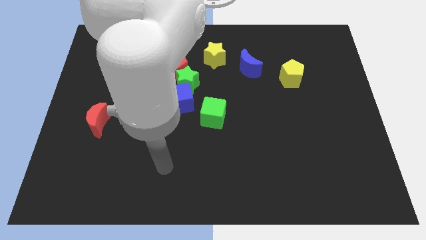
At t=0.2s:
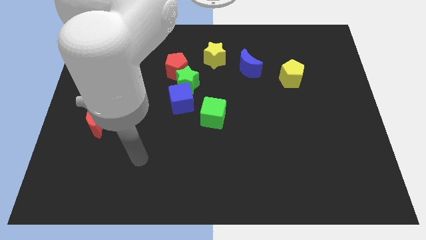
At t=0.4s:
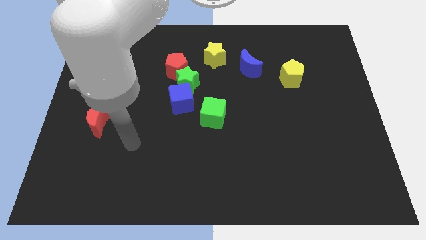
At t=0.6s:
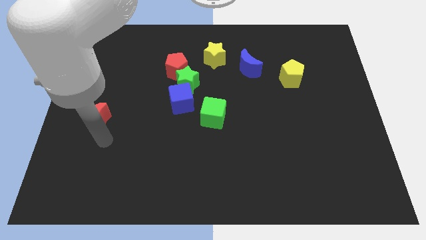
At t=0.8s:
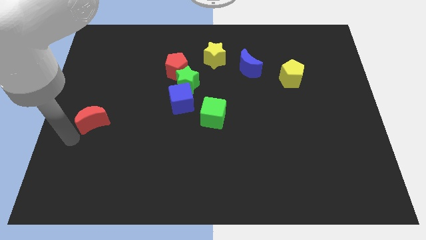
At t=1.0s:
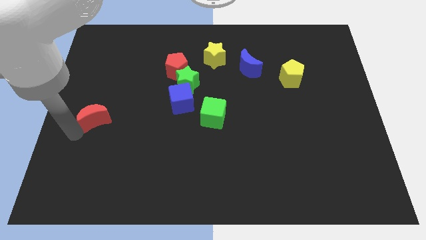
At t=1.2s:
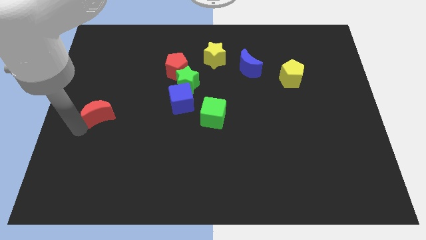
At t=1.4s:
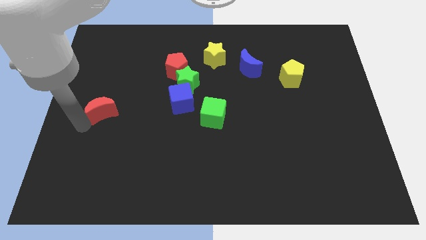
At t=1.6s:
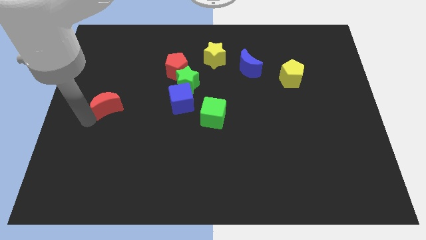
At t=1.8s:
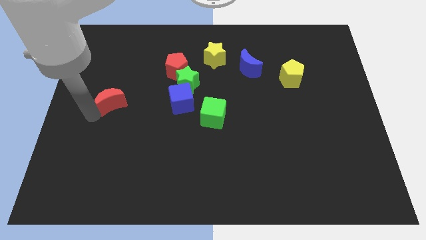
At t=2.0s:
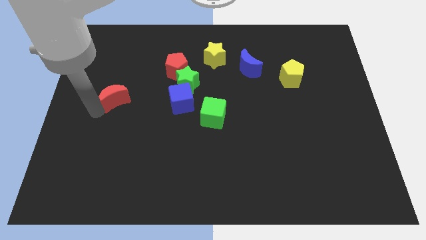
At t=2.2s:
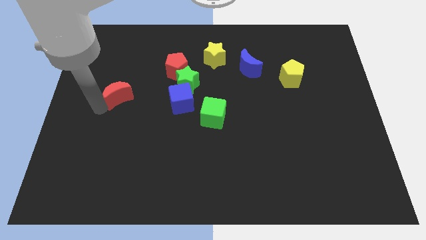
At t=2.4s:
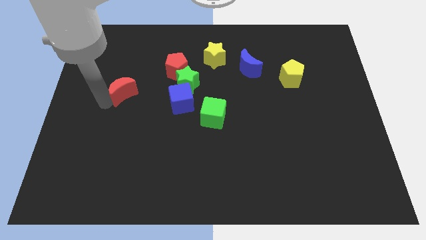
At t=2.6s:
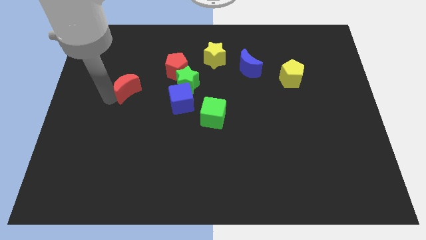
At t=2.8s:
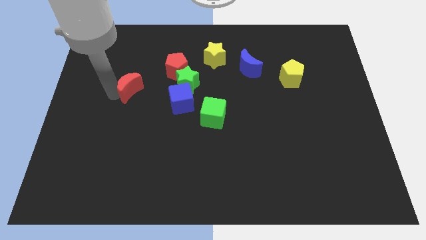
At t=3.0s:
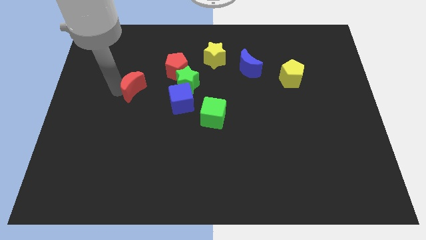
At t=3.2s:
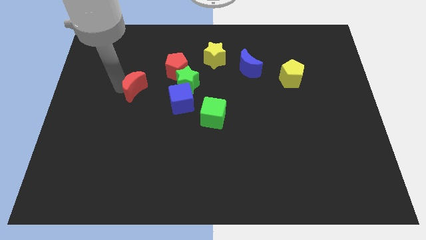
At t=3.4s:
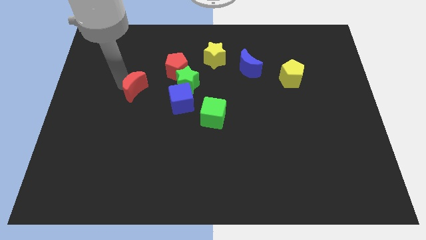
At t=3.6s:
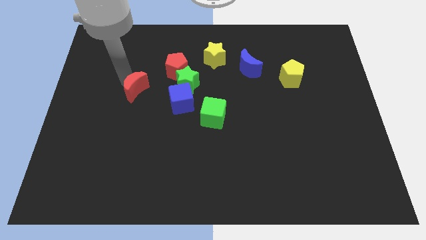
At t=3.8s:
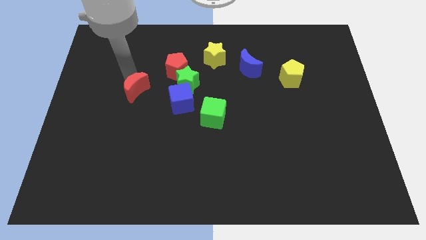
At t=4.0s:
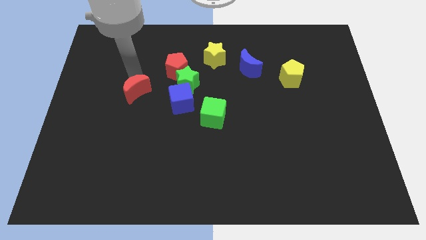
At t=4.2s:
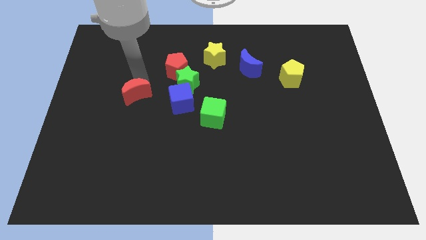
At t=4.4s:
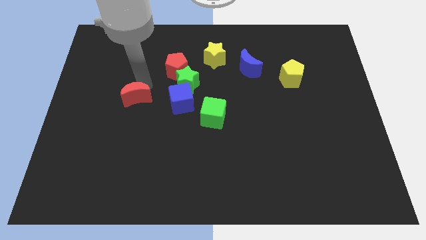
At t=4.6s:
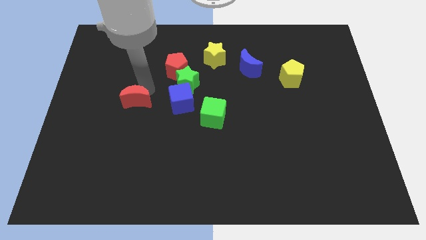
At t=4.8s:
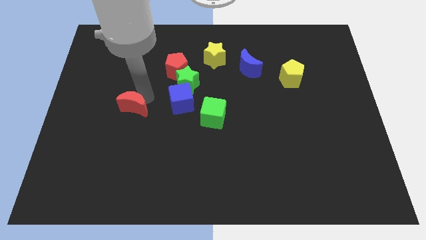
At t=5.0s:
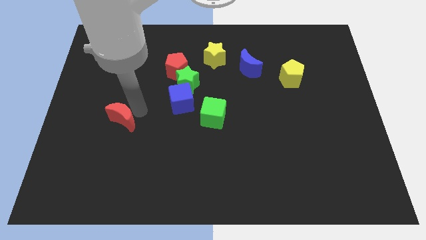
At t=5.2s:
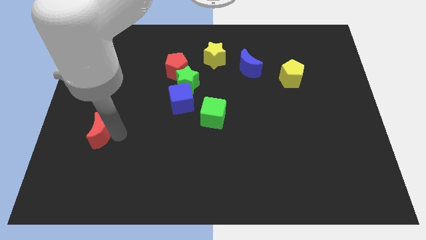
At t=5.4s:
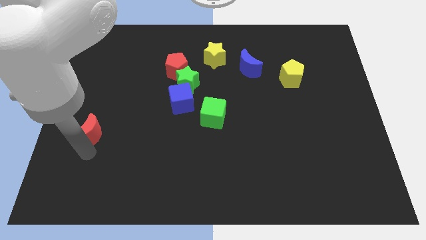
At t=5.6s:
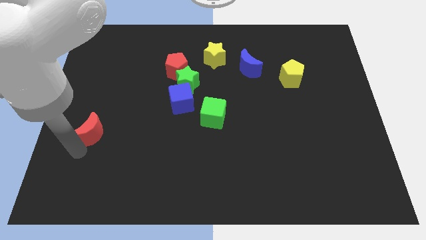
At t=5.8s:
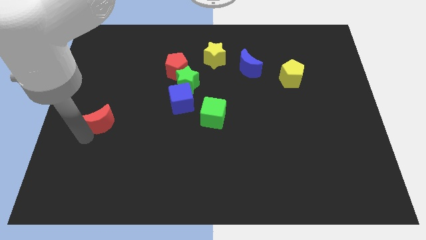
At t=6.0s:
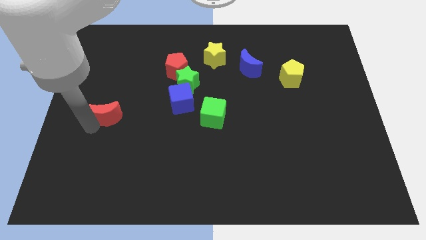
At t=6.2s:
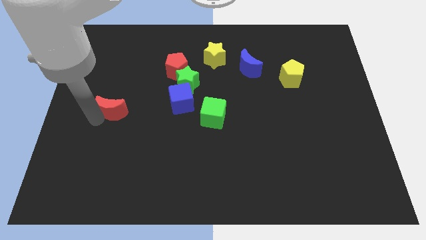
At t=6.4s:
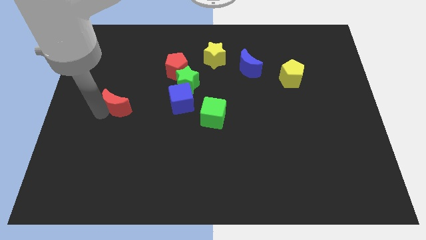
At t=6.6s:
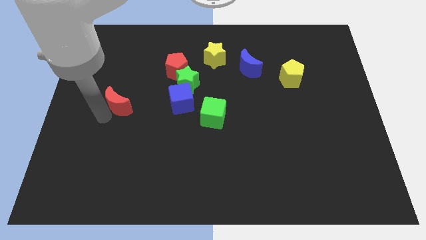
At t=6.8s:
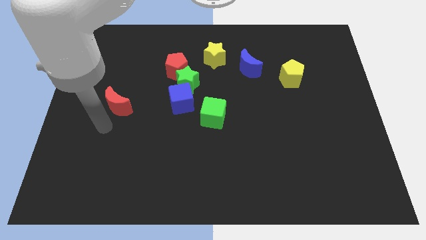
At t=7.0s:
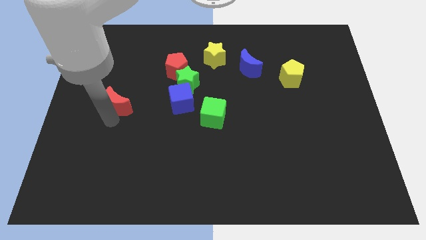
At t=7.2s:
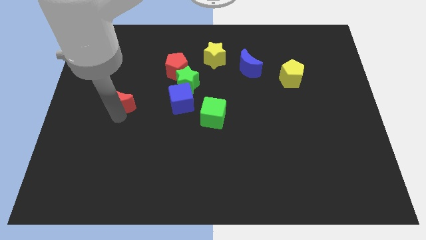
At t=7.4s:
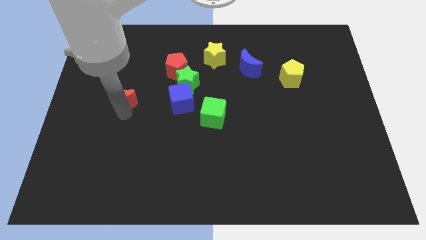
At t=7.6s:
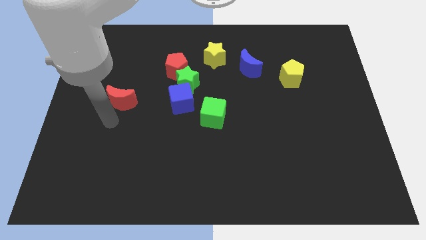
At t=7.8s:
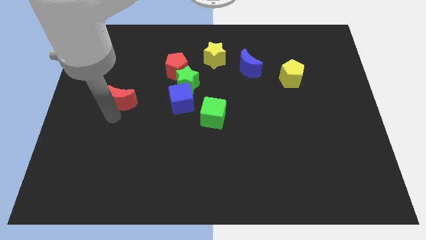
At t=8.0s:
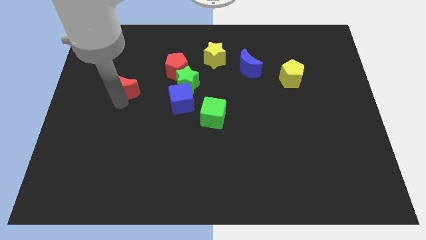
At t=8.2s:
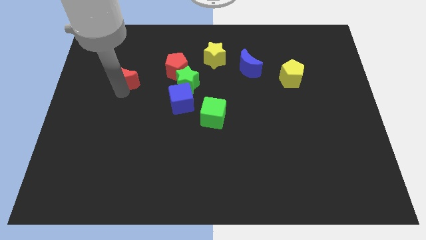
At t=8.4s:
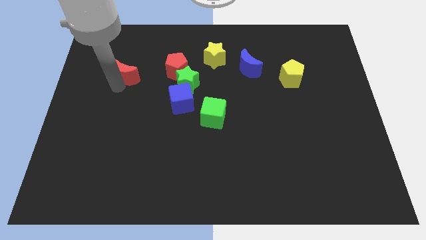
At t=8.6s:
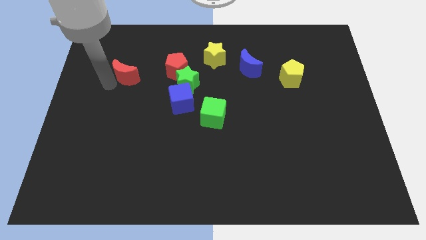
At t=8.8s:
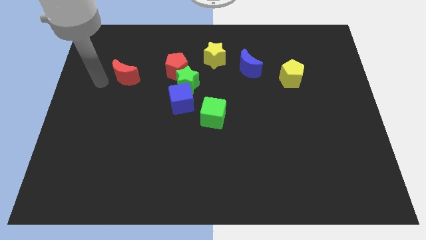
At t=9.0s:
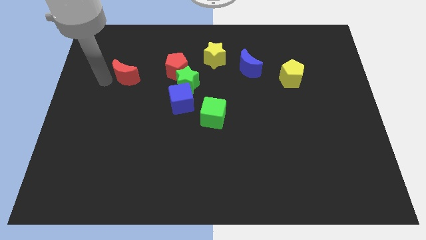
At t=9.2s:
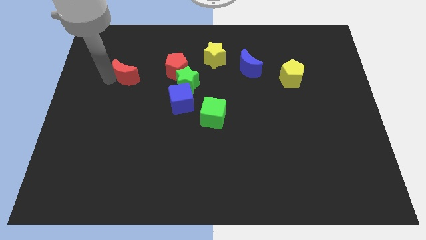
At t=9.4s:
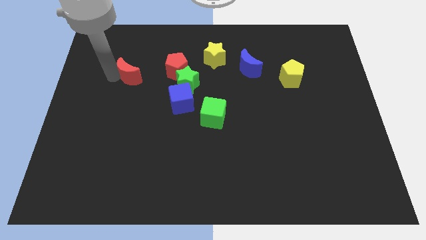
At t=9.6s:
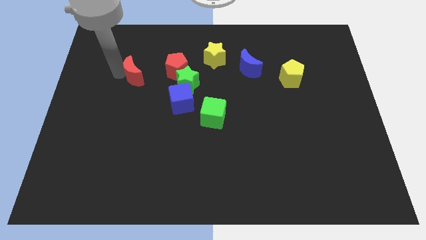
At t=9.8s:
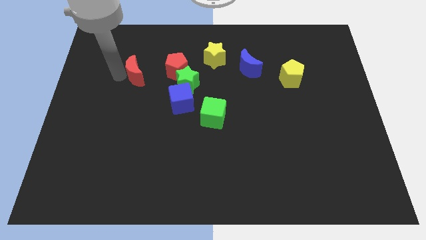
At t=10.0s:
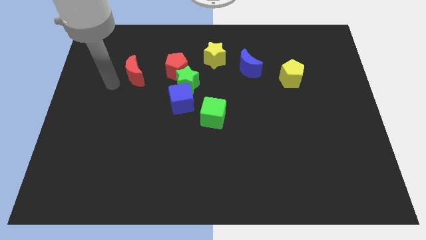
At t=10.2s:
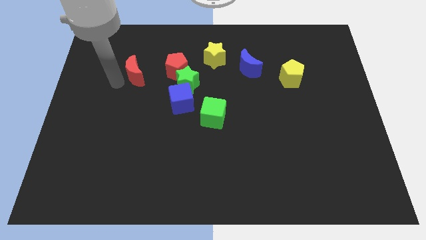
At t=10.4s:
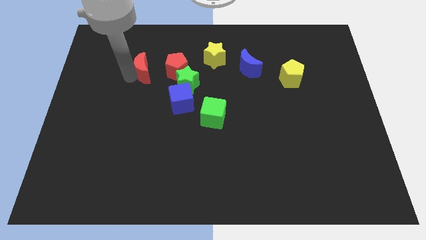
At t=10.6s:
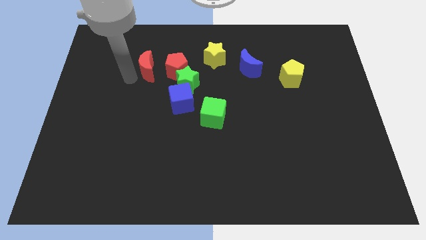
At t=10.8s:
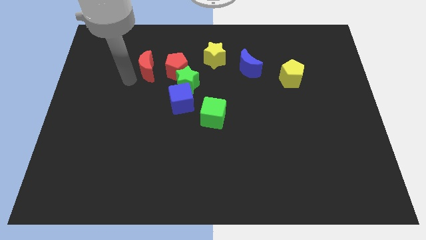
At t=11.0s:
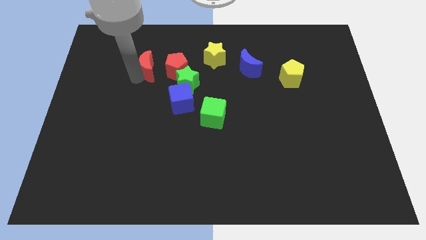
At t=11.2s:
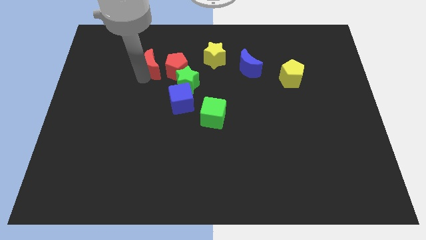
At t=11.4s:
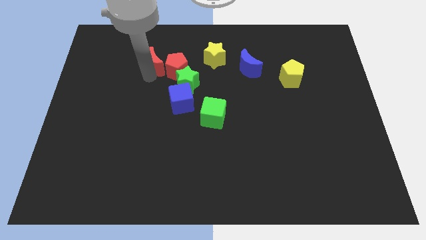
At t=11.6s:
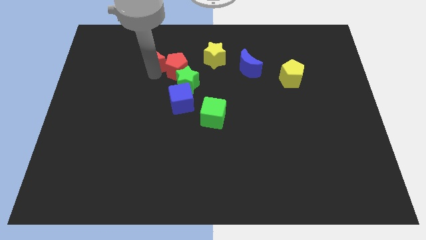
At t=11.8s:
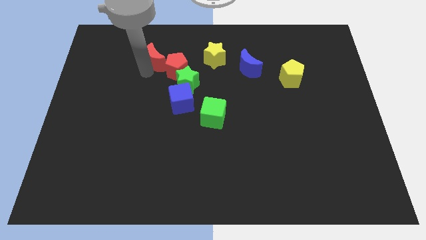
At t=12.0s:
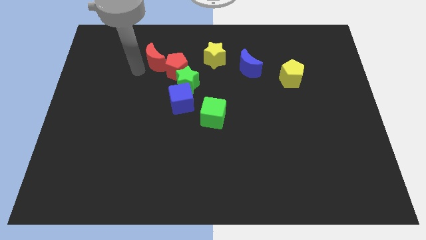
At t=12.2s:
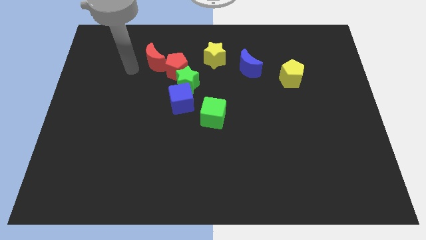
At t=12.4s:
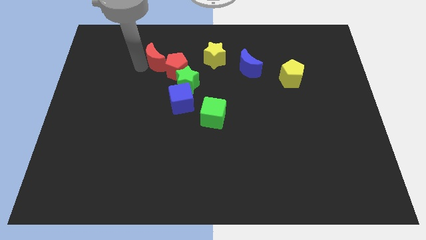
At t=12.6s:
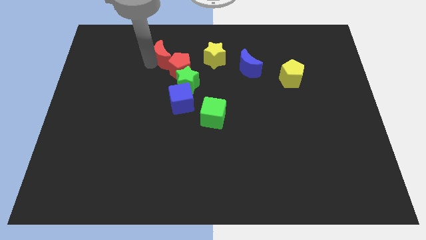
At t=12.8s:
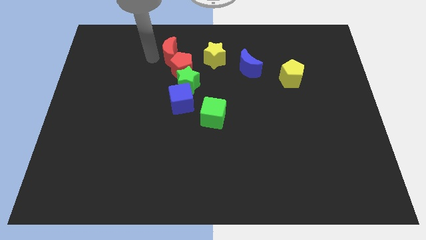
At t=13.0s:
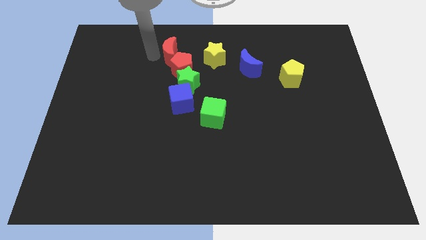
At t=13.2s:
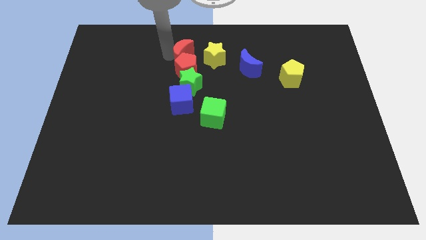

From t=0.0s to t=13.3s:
put the red moon to the top right of the red pentagon

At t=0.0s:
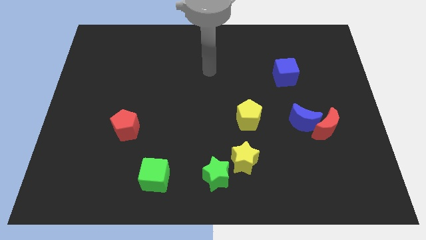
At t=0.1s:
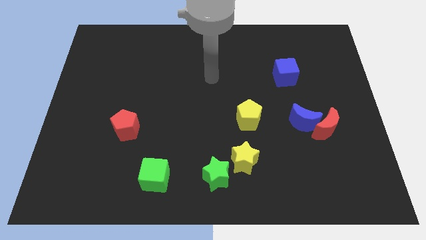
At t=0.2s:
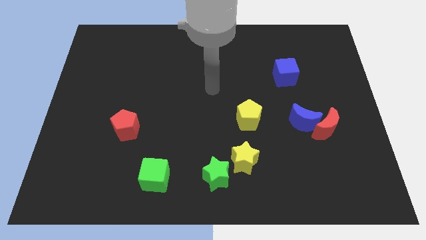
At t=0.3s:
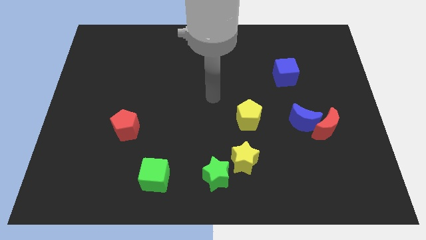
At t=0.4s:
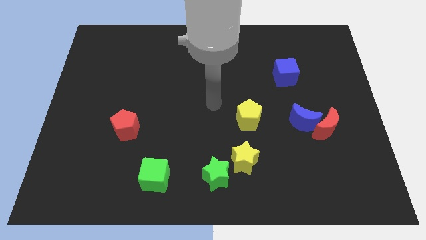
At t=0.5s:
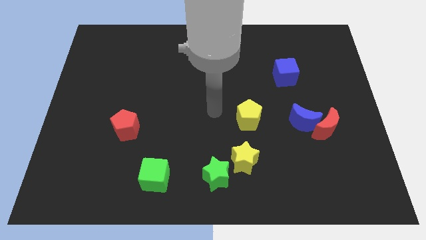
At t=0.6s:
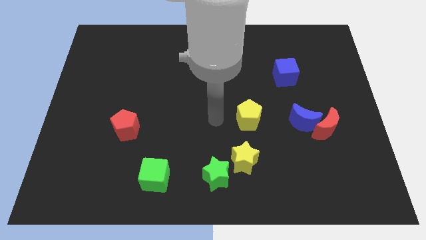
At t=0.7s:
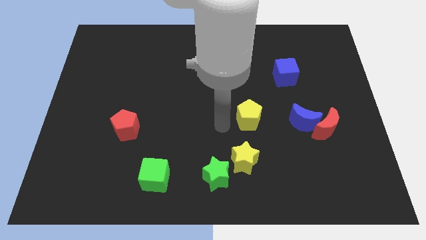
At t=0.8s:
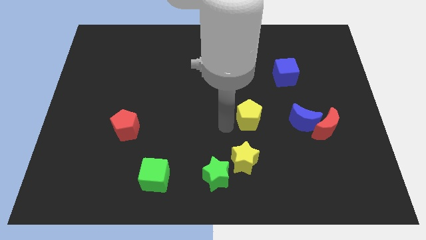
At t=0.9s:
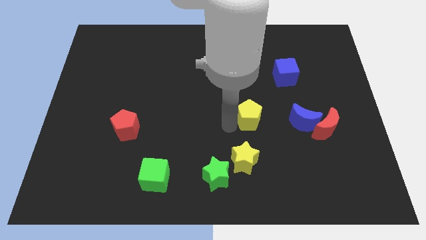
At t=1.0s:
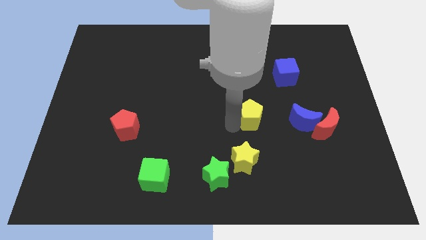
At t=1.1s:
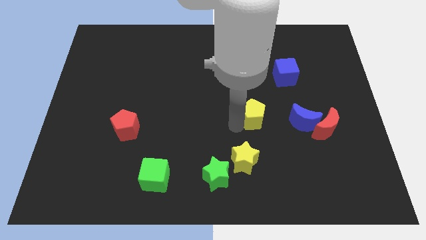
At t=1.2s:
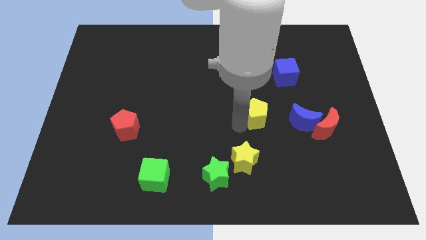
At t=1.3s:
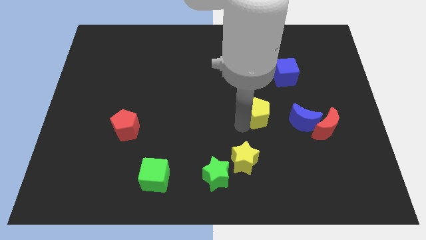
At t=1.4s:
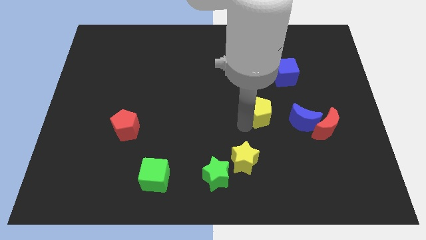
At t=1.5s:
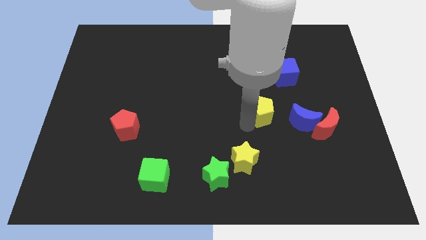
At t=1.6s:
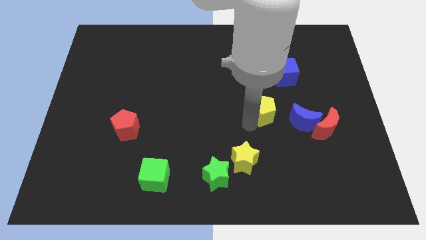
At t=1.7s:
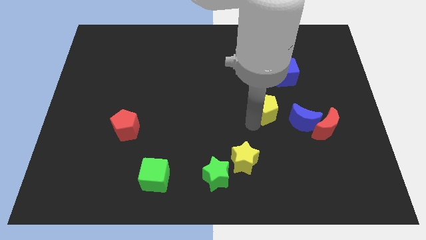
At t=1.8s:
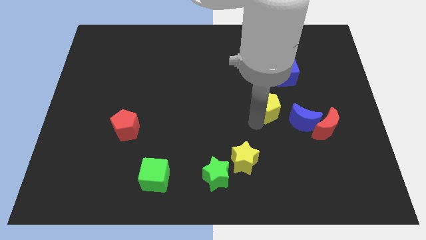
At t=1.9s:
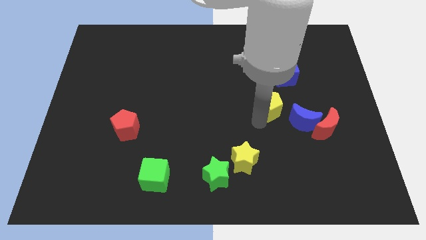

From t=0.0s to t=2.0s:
put the yellow pentagon below the blue cube
